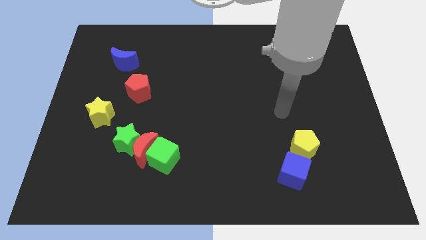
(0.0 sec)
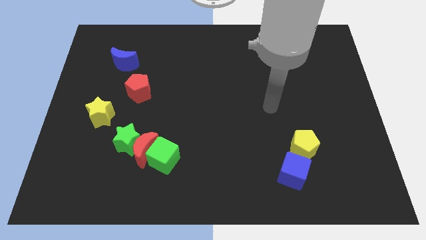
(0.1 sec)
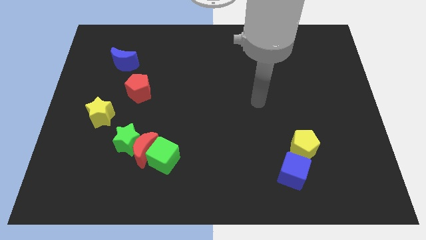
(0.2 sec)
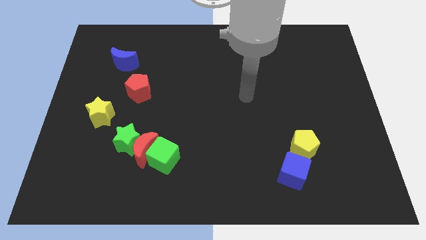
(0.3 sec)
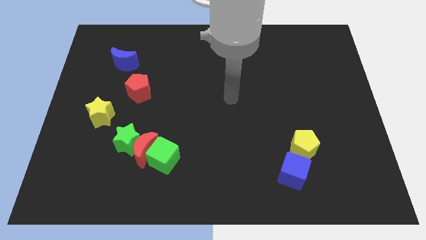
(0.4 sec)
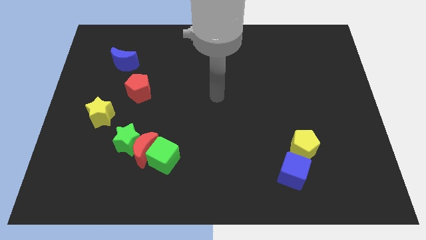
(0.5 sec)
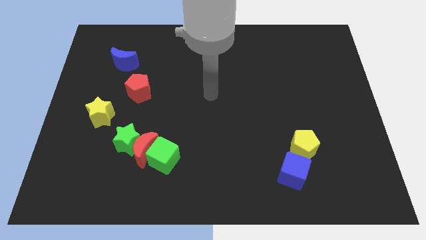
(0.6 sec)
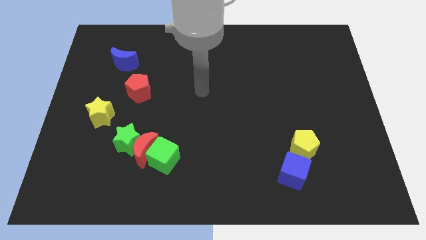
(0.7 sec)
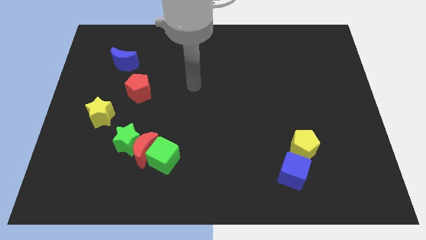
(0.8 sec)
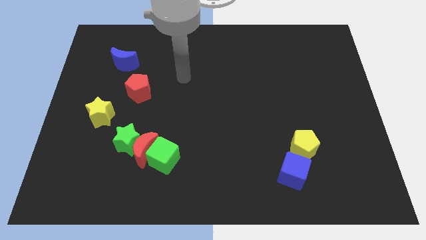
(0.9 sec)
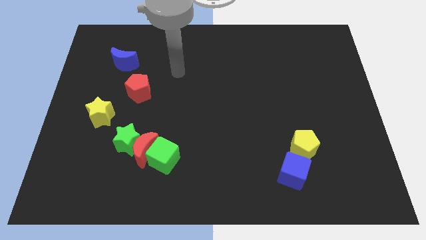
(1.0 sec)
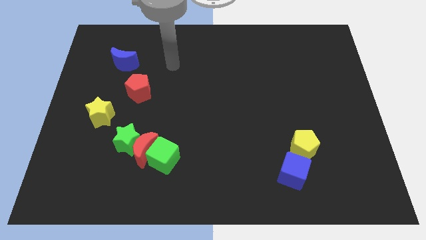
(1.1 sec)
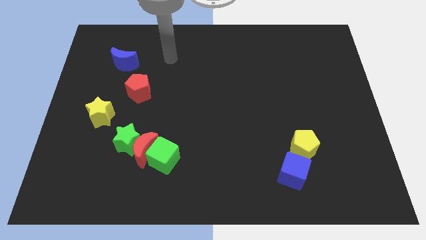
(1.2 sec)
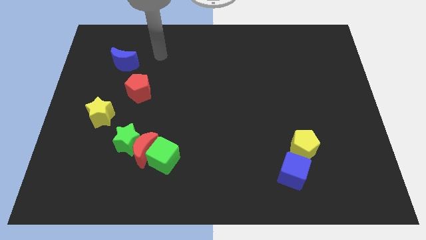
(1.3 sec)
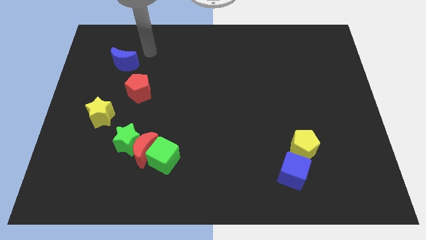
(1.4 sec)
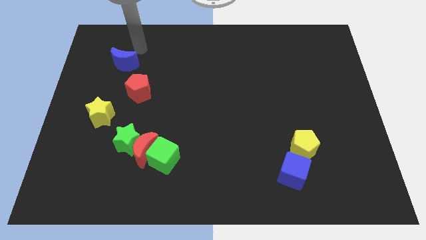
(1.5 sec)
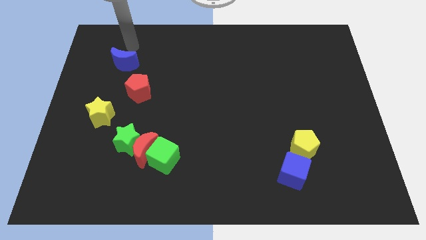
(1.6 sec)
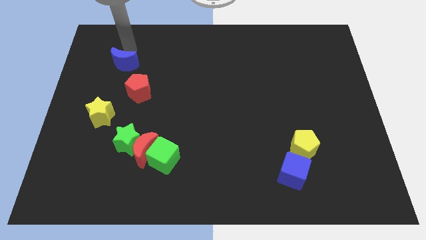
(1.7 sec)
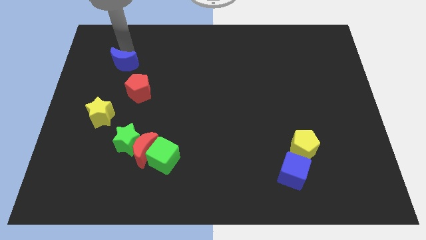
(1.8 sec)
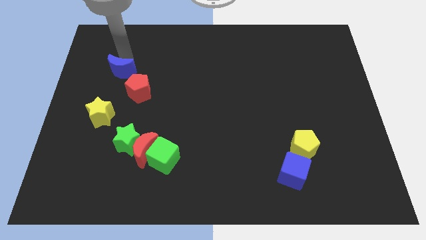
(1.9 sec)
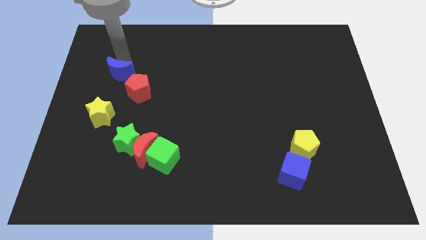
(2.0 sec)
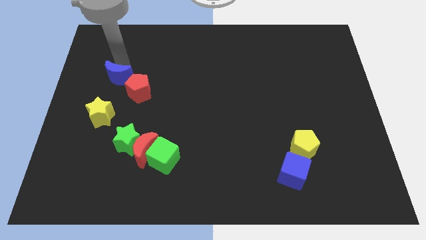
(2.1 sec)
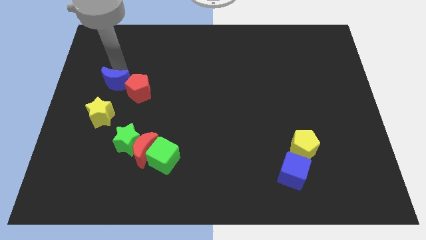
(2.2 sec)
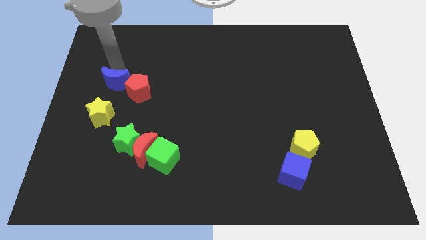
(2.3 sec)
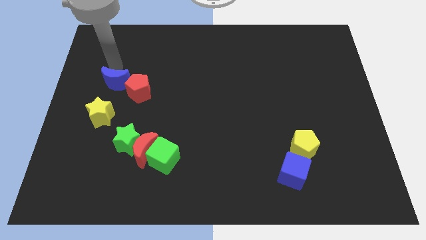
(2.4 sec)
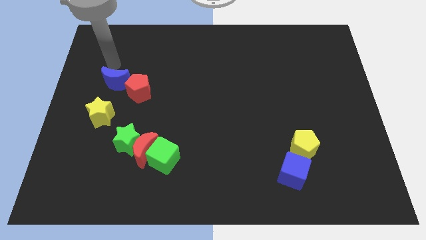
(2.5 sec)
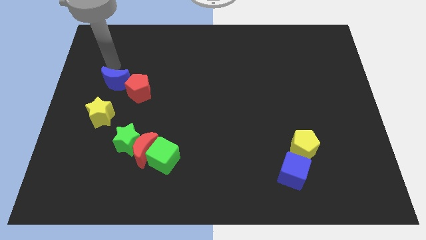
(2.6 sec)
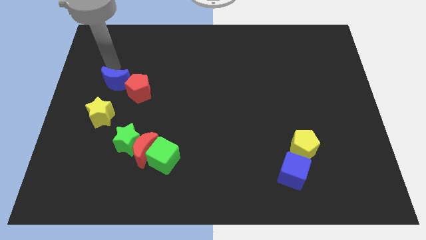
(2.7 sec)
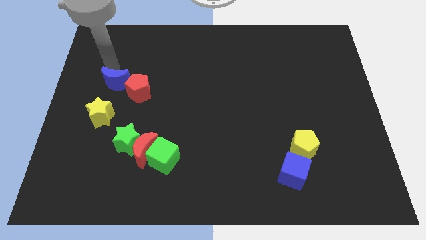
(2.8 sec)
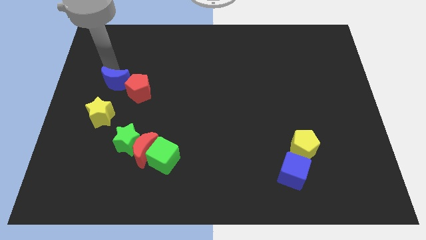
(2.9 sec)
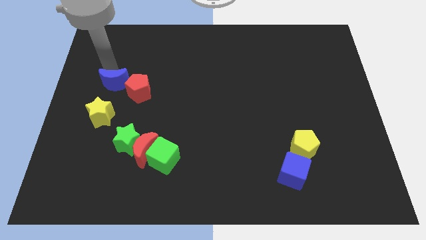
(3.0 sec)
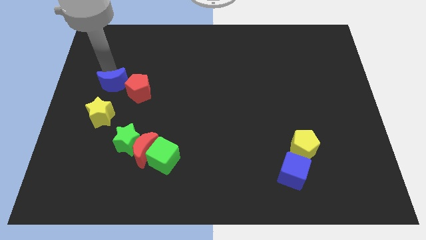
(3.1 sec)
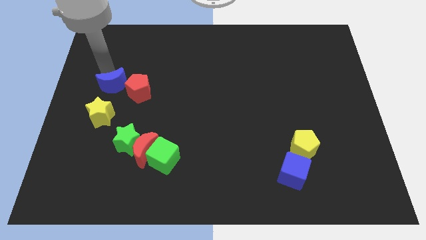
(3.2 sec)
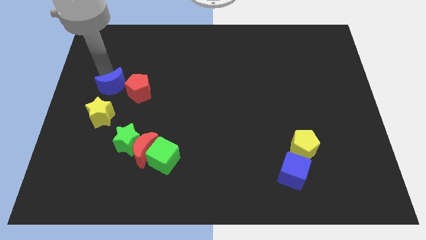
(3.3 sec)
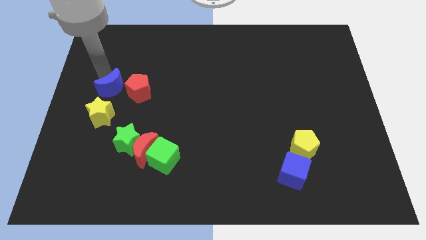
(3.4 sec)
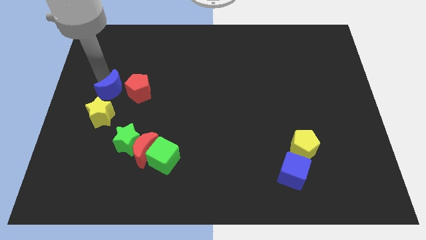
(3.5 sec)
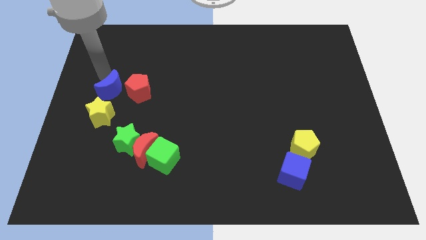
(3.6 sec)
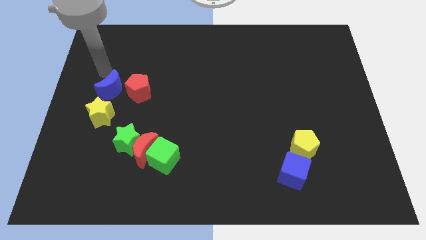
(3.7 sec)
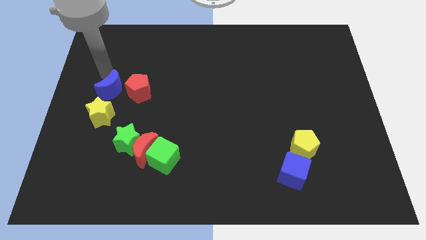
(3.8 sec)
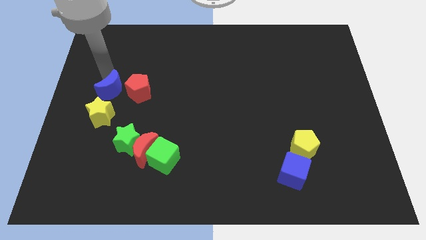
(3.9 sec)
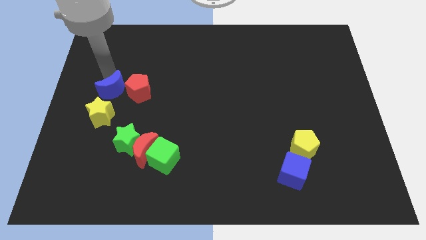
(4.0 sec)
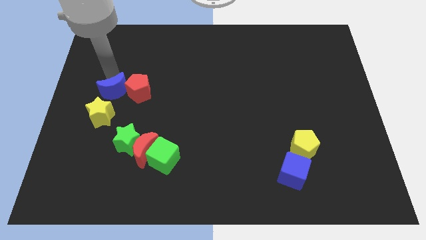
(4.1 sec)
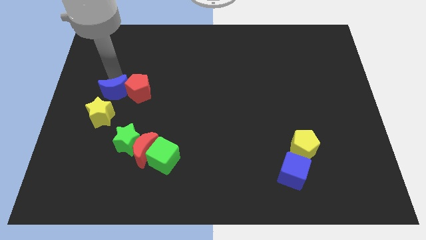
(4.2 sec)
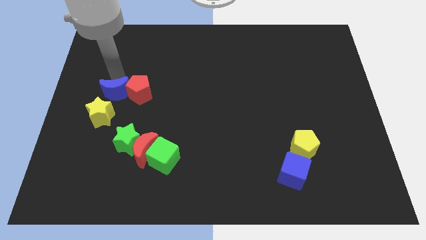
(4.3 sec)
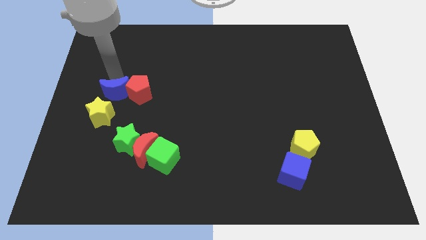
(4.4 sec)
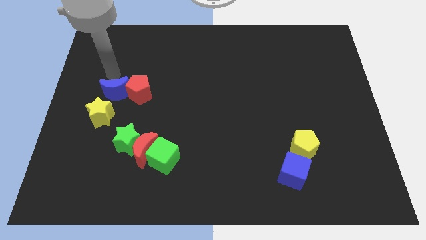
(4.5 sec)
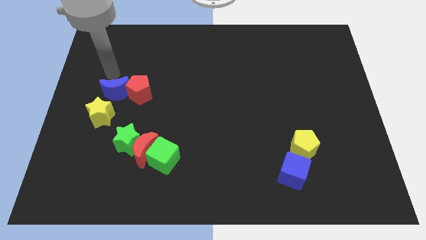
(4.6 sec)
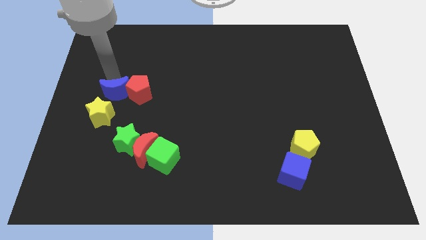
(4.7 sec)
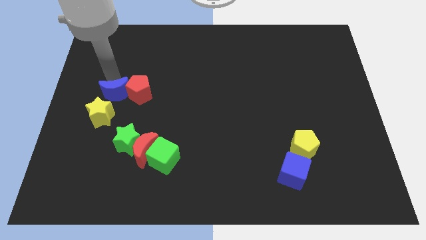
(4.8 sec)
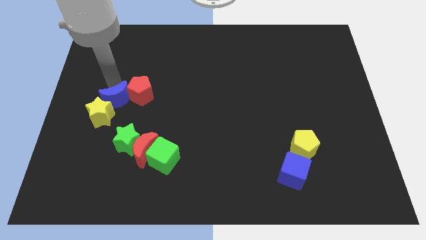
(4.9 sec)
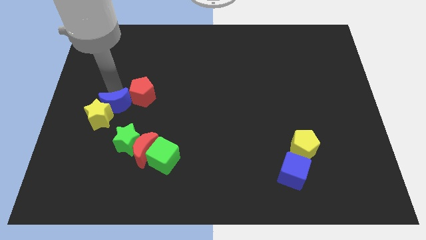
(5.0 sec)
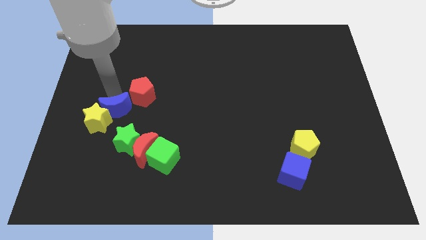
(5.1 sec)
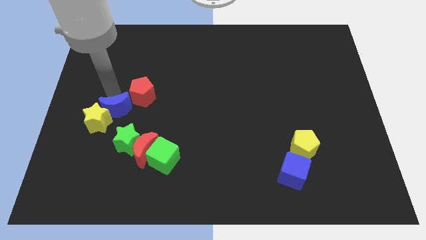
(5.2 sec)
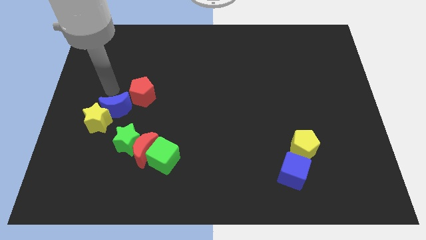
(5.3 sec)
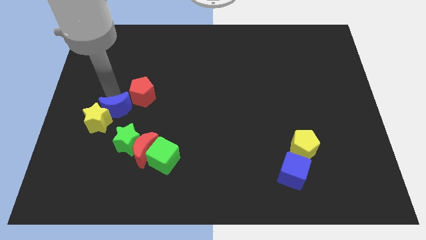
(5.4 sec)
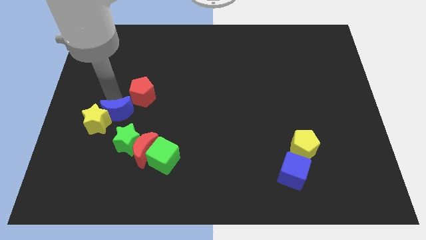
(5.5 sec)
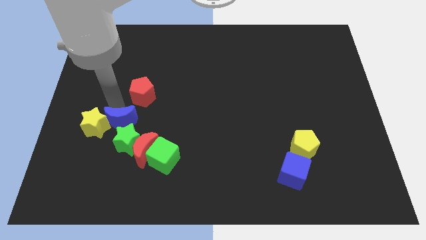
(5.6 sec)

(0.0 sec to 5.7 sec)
move the blue moon next to the green star

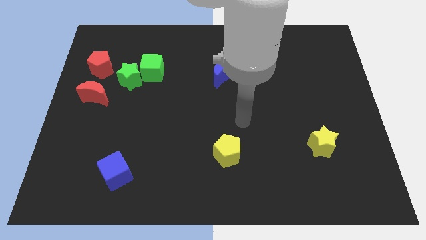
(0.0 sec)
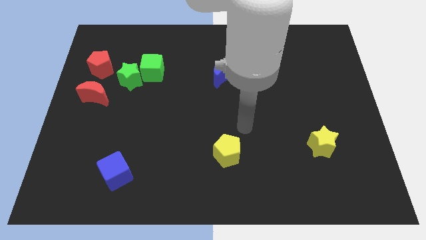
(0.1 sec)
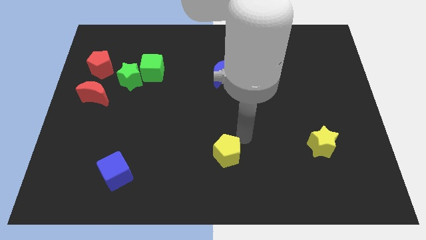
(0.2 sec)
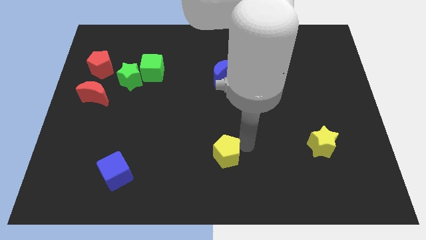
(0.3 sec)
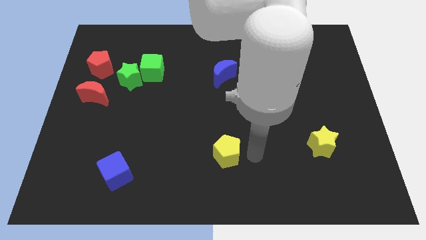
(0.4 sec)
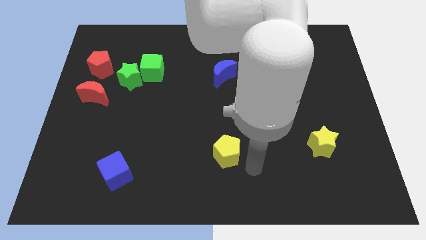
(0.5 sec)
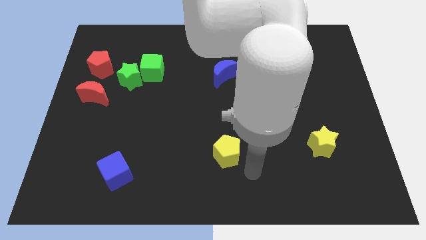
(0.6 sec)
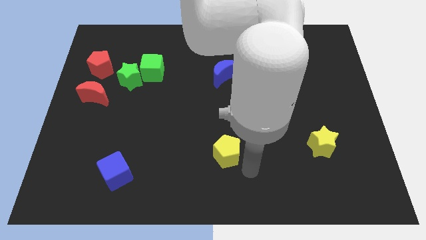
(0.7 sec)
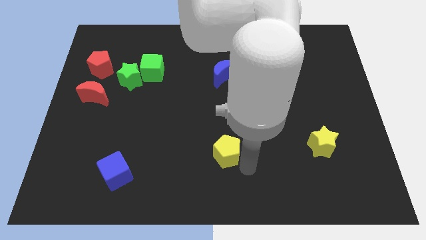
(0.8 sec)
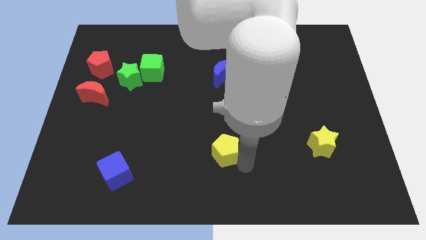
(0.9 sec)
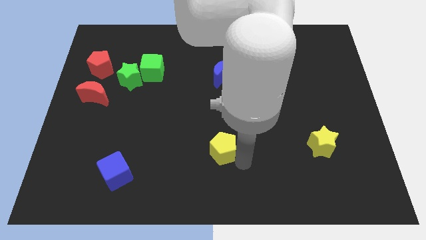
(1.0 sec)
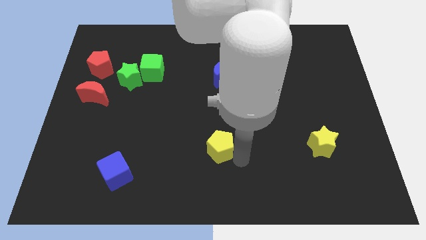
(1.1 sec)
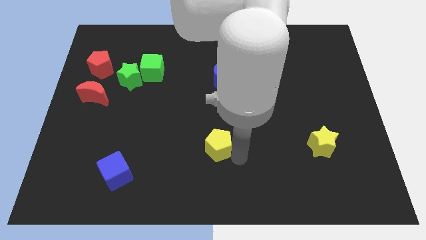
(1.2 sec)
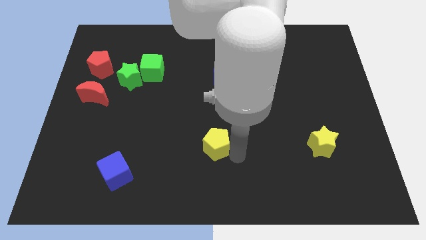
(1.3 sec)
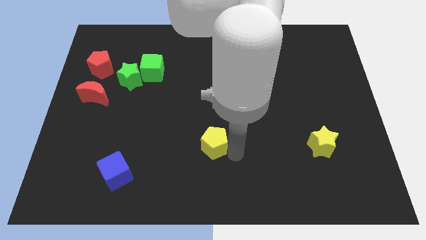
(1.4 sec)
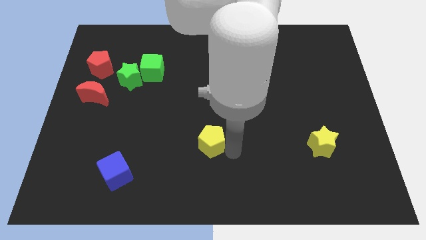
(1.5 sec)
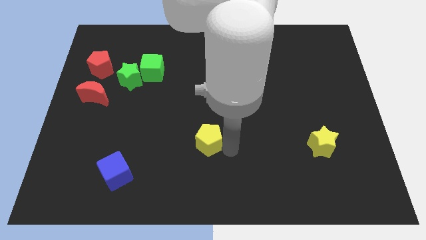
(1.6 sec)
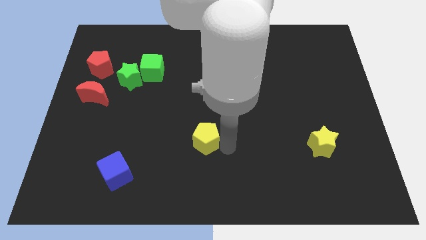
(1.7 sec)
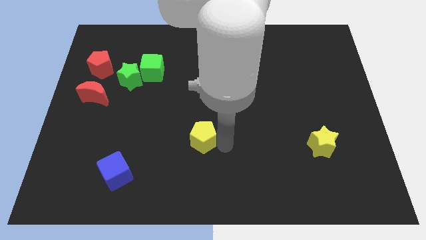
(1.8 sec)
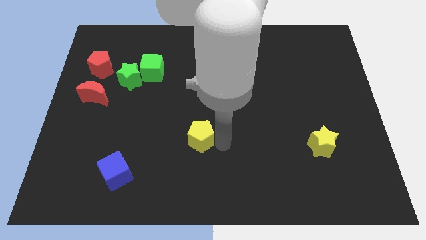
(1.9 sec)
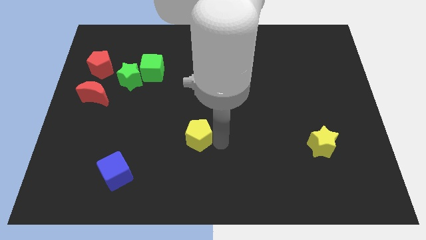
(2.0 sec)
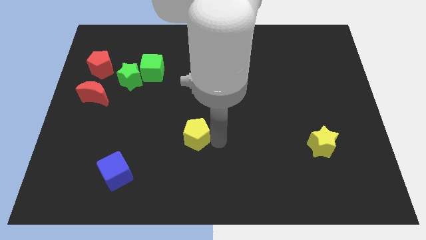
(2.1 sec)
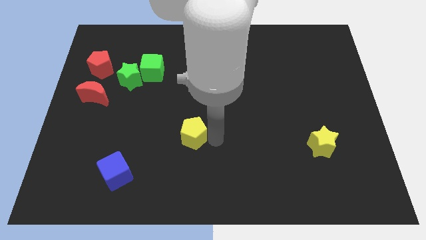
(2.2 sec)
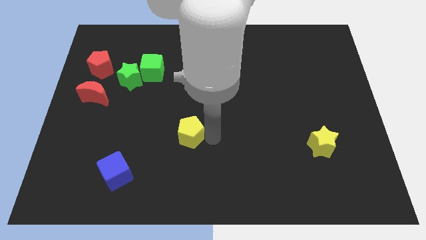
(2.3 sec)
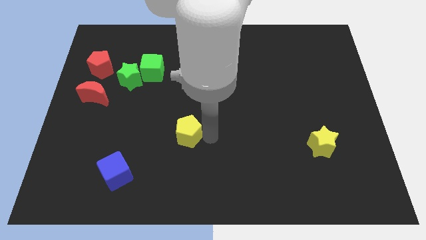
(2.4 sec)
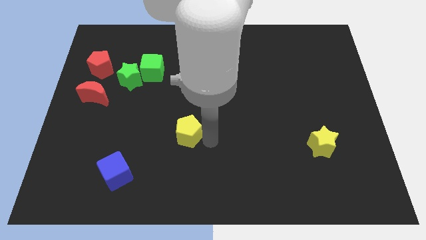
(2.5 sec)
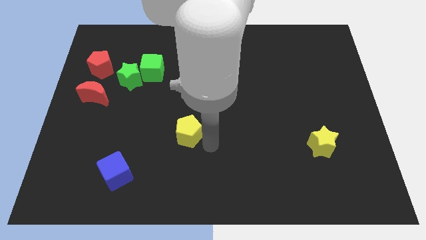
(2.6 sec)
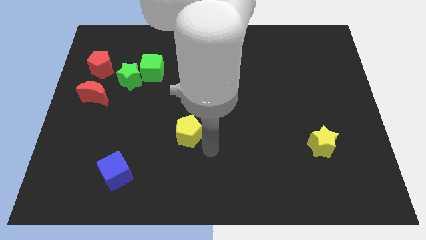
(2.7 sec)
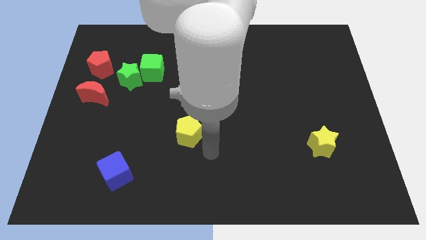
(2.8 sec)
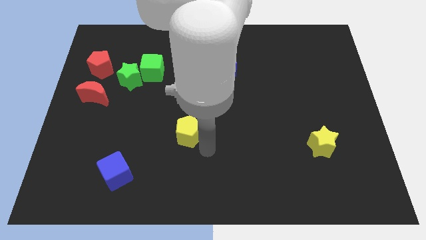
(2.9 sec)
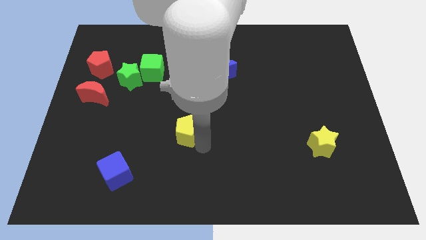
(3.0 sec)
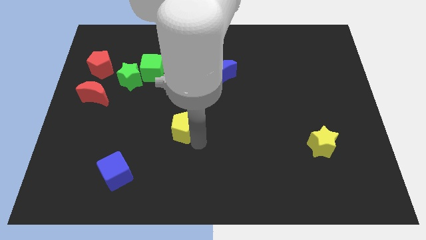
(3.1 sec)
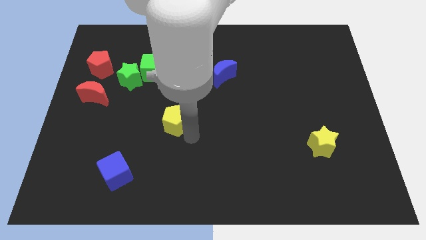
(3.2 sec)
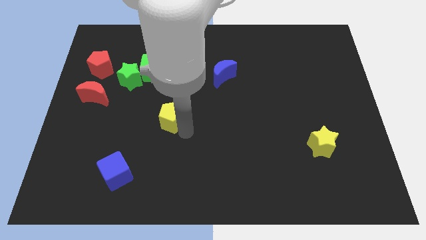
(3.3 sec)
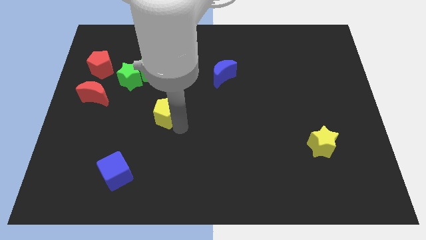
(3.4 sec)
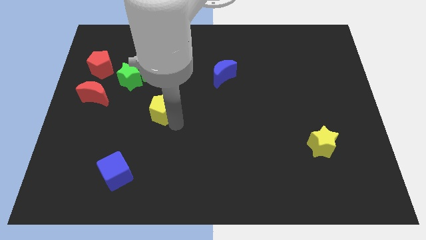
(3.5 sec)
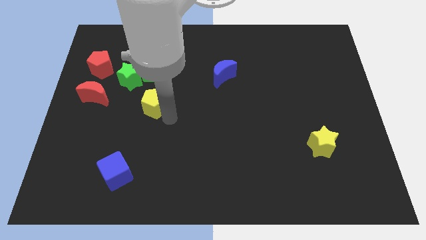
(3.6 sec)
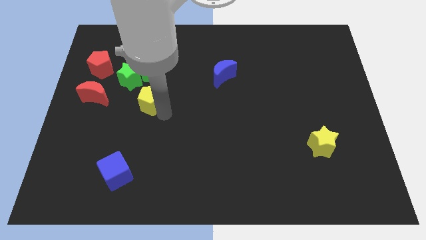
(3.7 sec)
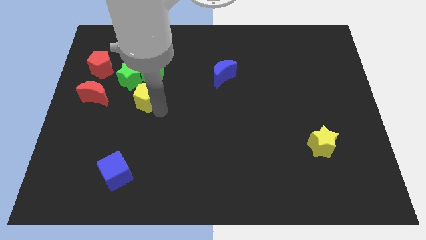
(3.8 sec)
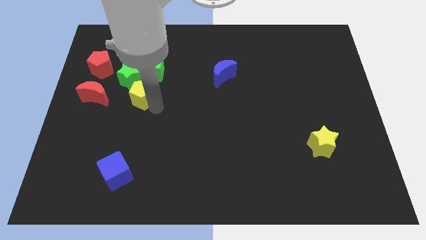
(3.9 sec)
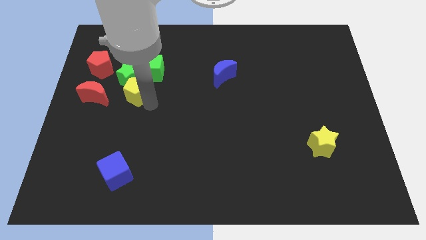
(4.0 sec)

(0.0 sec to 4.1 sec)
put the yellow pentagon towards the green star
